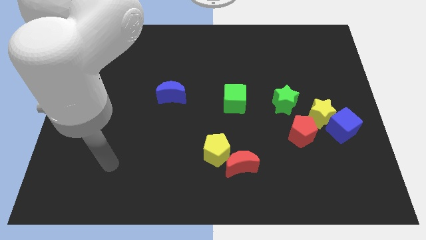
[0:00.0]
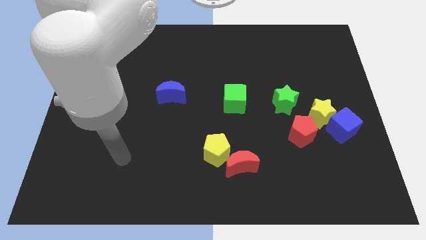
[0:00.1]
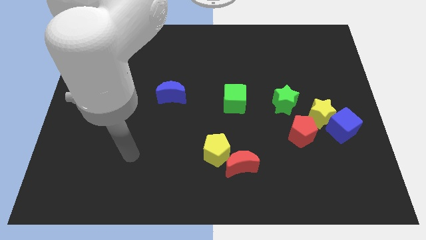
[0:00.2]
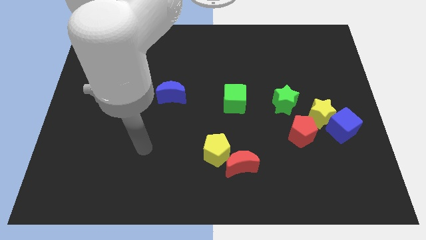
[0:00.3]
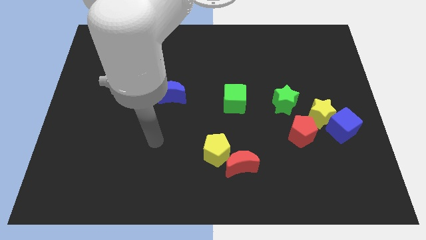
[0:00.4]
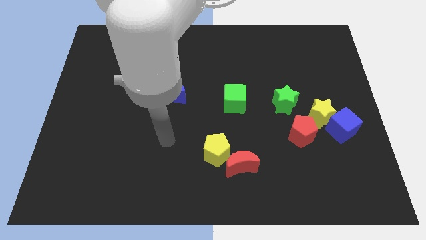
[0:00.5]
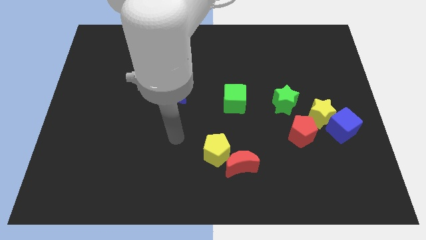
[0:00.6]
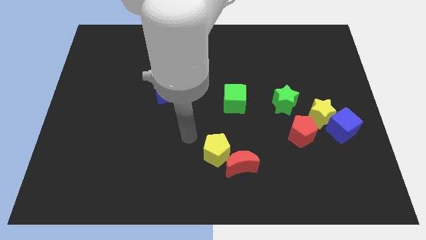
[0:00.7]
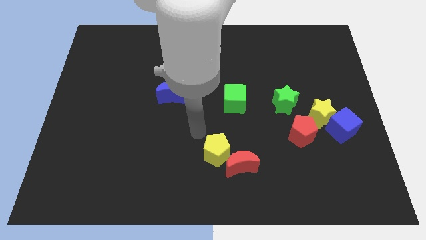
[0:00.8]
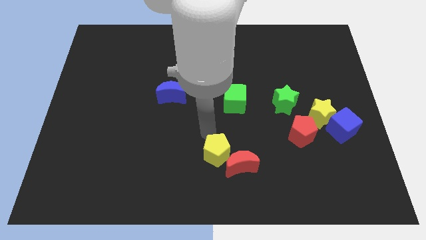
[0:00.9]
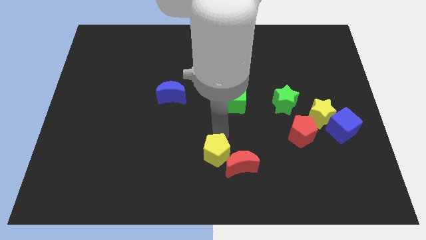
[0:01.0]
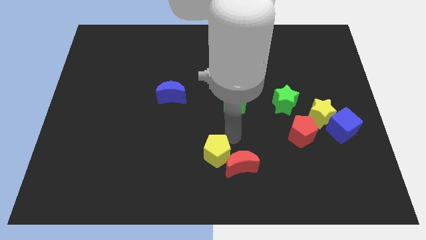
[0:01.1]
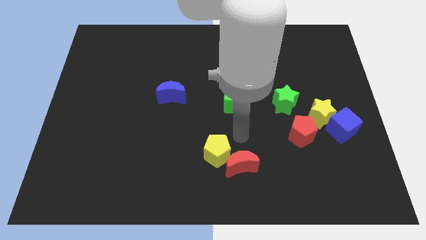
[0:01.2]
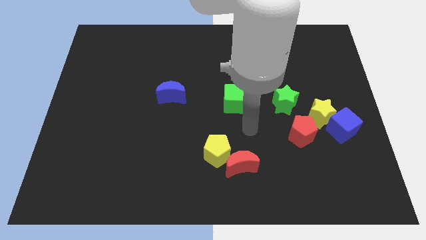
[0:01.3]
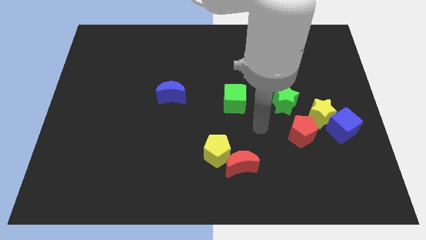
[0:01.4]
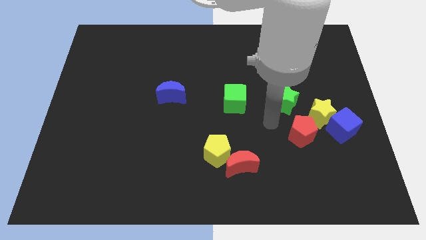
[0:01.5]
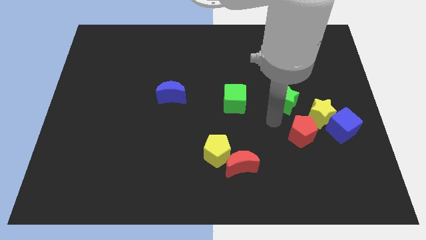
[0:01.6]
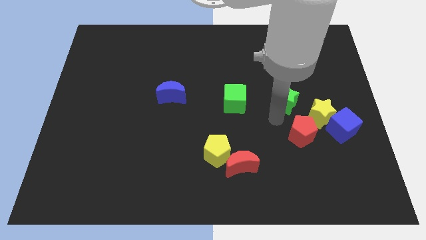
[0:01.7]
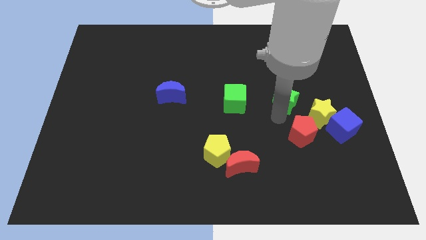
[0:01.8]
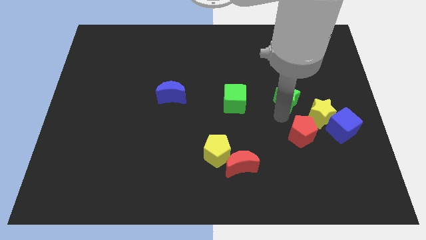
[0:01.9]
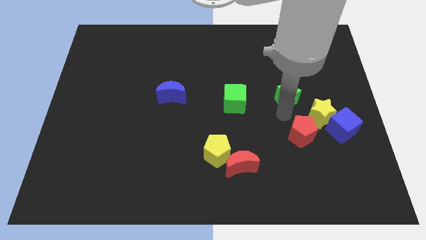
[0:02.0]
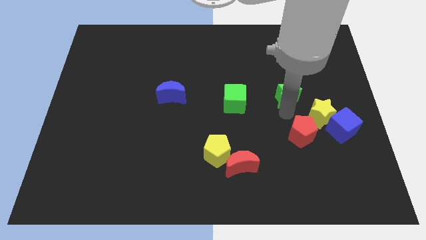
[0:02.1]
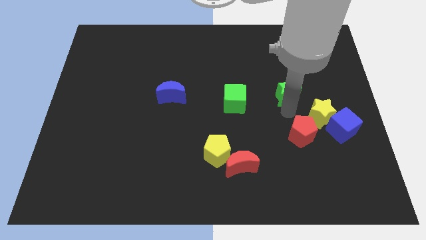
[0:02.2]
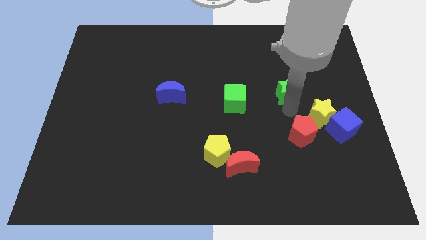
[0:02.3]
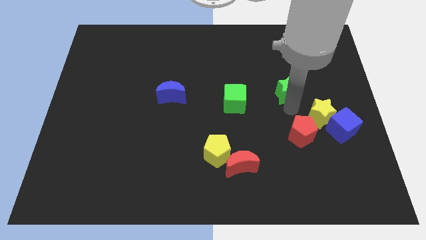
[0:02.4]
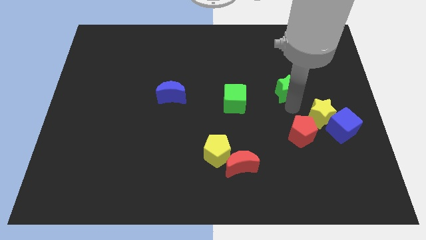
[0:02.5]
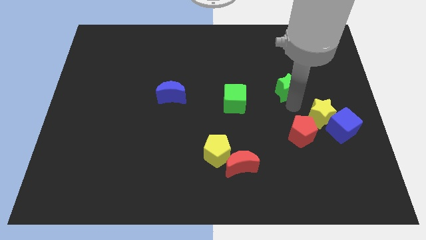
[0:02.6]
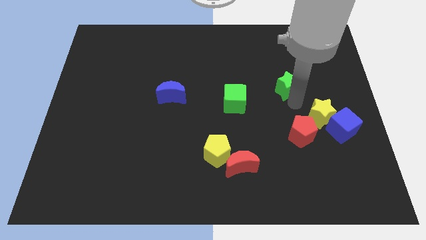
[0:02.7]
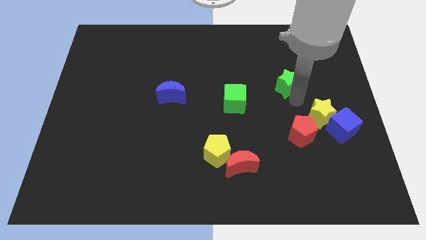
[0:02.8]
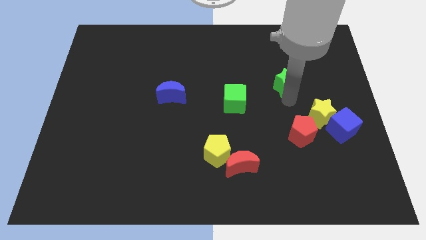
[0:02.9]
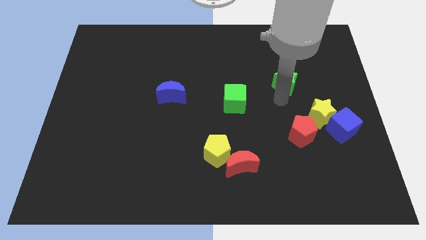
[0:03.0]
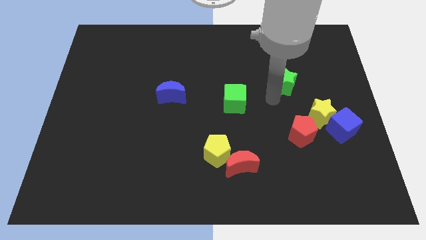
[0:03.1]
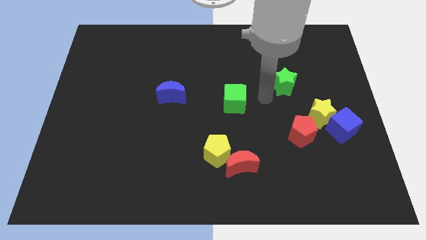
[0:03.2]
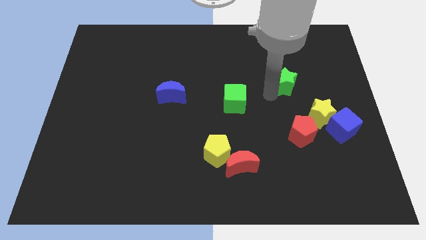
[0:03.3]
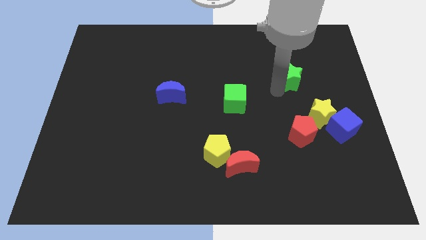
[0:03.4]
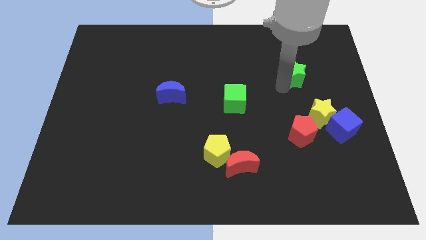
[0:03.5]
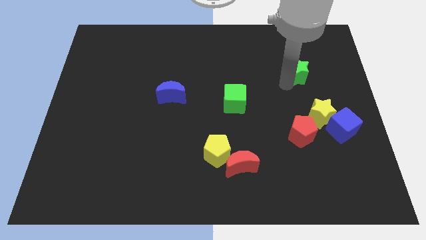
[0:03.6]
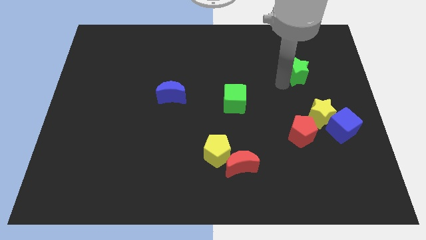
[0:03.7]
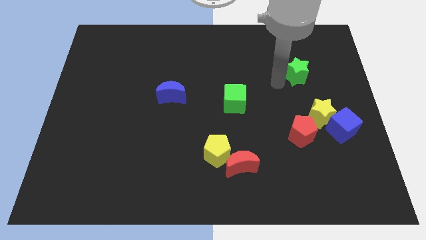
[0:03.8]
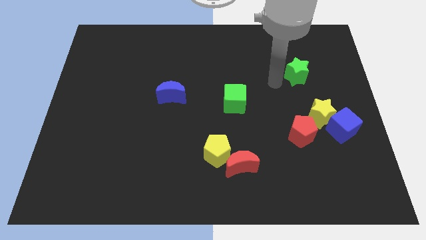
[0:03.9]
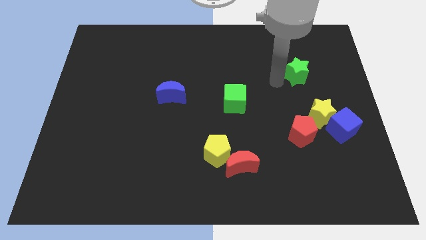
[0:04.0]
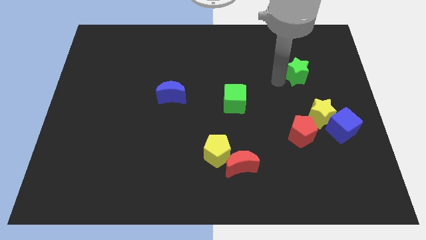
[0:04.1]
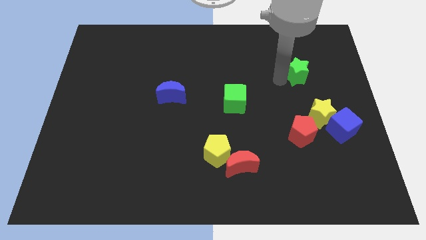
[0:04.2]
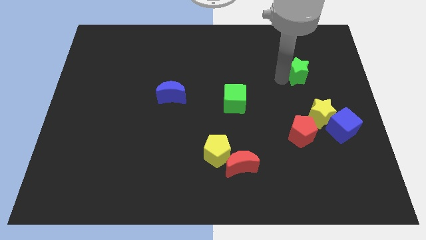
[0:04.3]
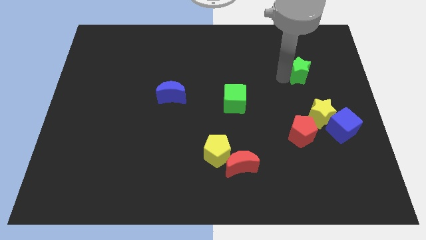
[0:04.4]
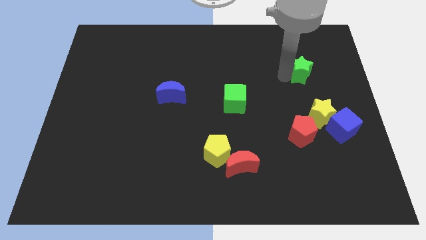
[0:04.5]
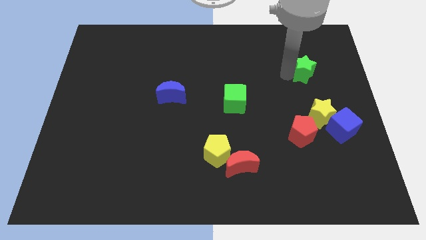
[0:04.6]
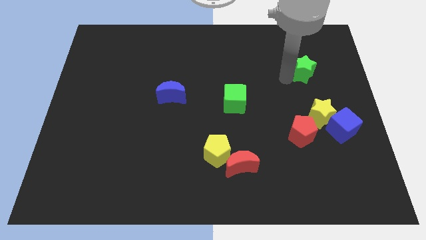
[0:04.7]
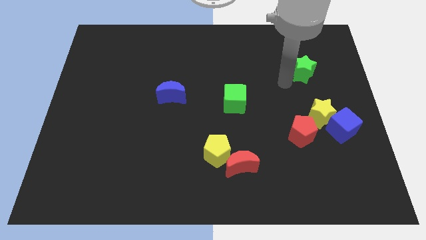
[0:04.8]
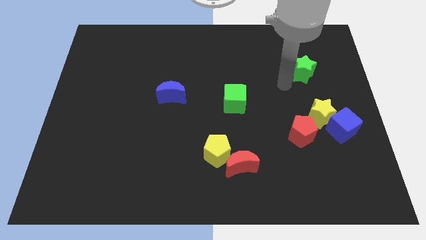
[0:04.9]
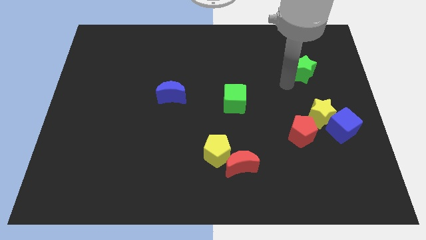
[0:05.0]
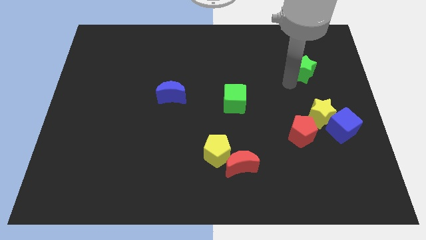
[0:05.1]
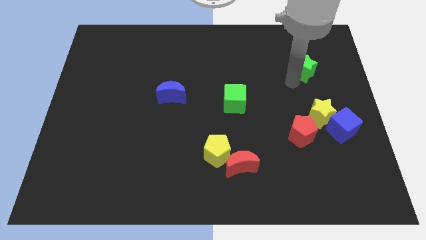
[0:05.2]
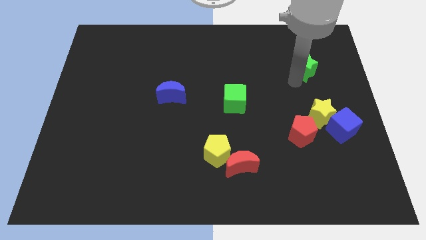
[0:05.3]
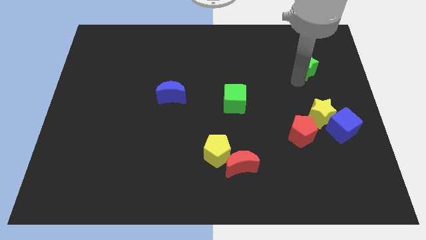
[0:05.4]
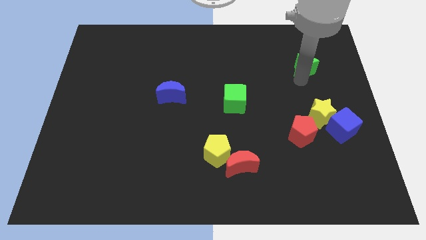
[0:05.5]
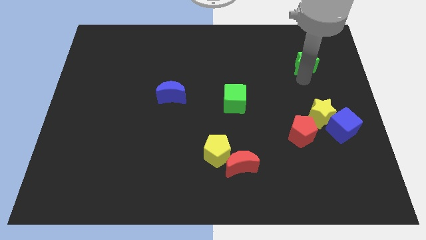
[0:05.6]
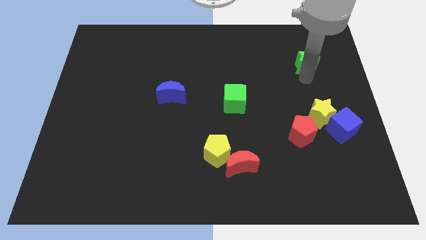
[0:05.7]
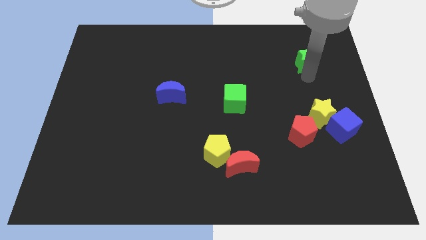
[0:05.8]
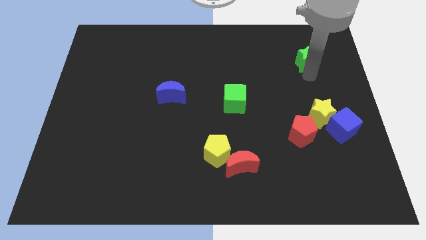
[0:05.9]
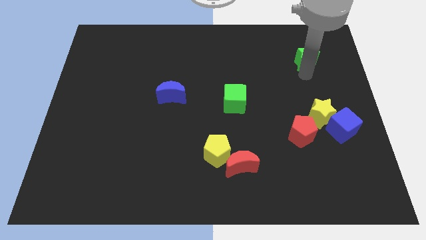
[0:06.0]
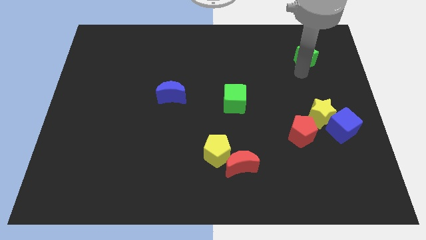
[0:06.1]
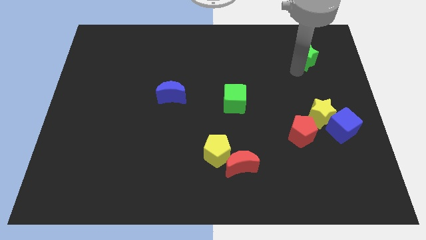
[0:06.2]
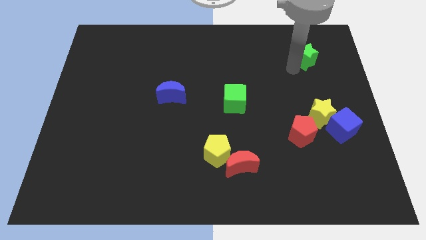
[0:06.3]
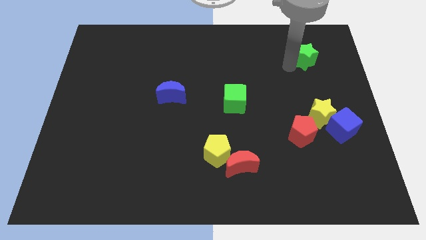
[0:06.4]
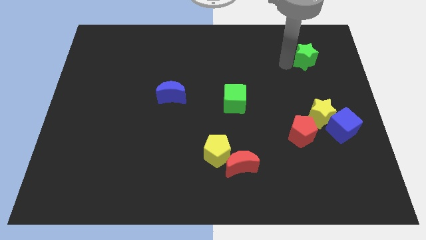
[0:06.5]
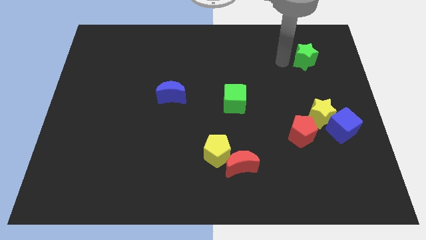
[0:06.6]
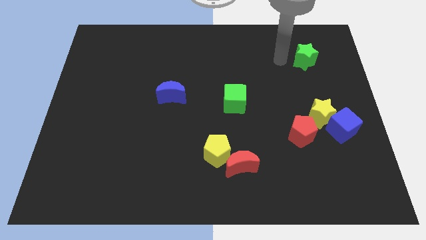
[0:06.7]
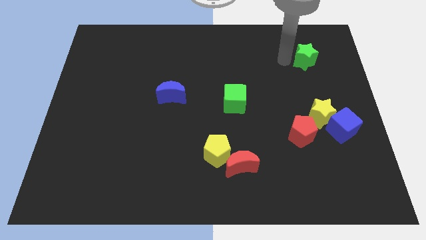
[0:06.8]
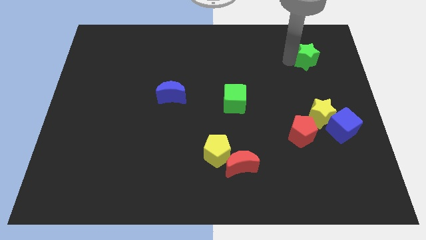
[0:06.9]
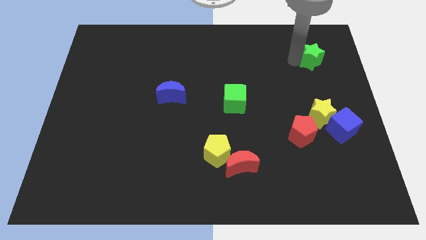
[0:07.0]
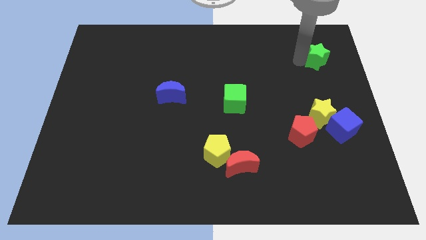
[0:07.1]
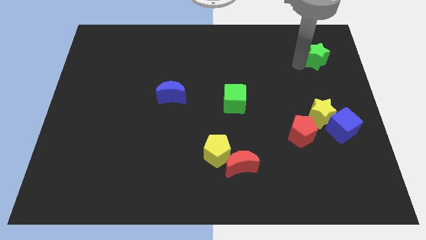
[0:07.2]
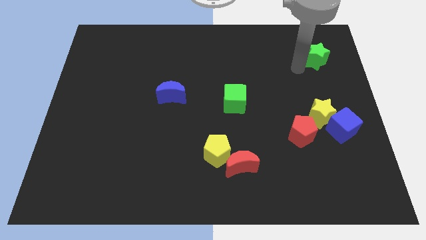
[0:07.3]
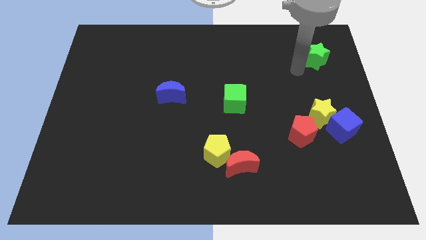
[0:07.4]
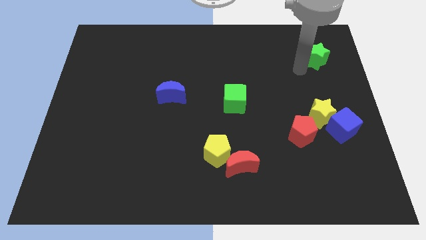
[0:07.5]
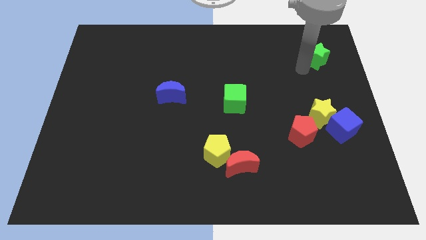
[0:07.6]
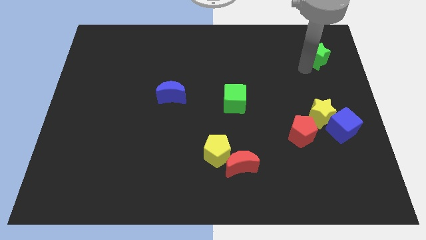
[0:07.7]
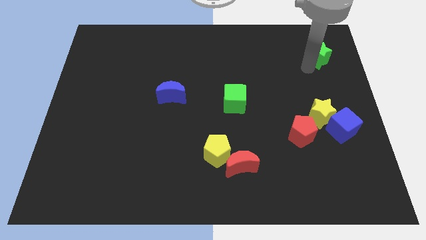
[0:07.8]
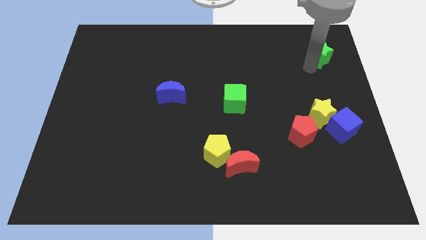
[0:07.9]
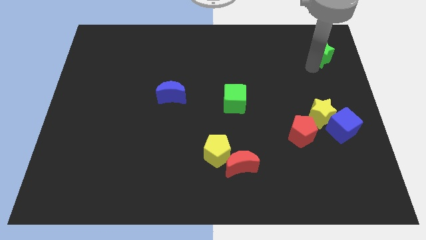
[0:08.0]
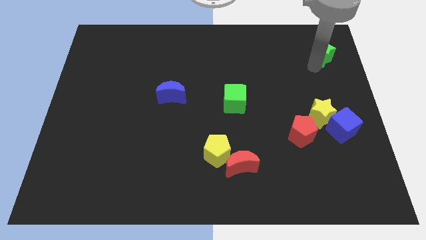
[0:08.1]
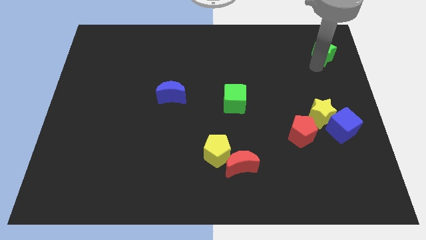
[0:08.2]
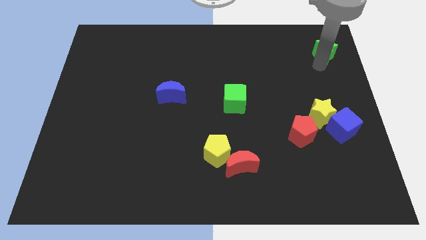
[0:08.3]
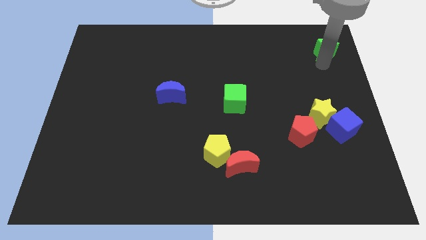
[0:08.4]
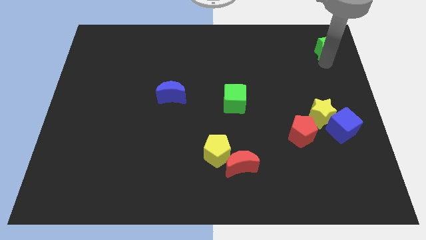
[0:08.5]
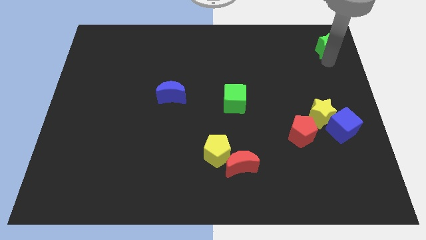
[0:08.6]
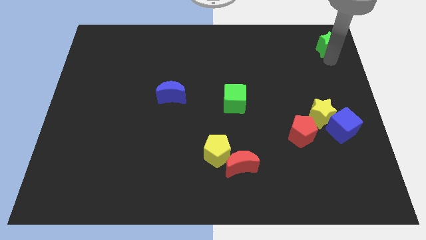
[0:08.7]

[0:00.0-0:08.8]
push the green star to the top right of the board
